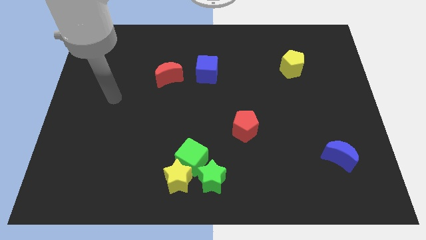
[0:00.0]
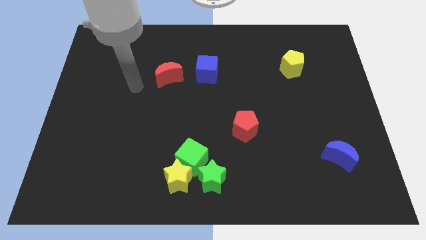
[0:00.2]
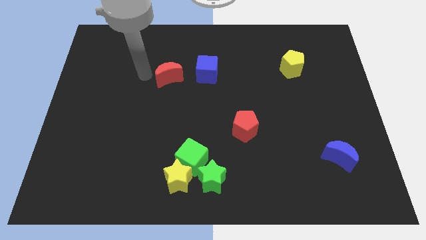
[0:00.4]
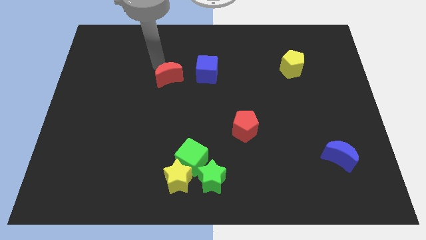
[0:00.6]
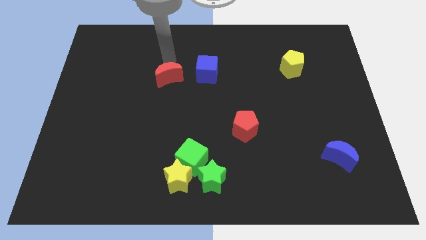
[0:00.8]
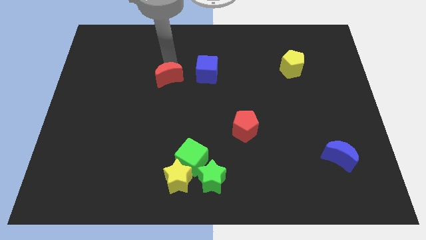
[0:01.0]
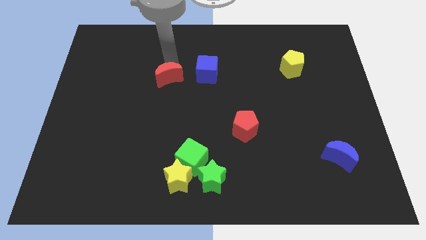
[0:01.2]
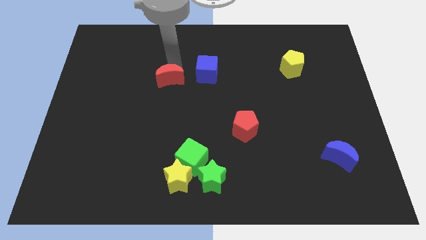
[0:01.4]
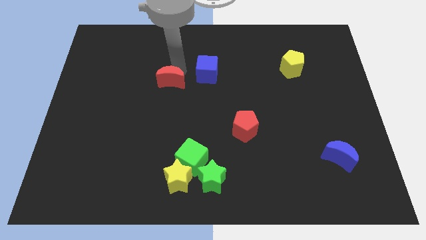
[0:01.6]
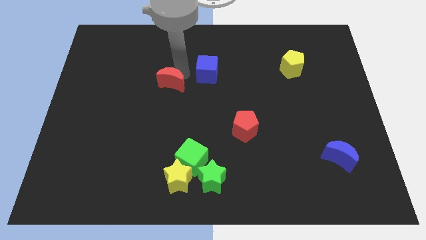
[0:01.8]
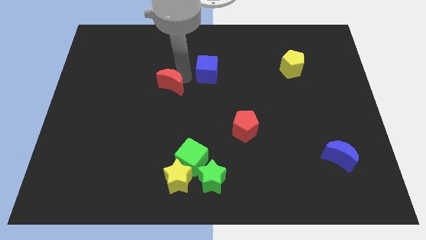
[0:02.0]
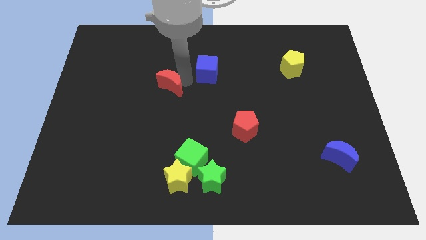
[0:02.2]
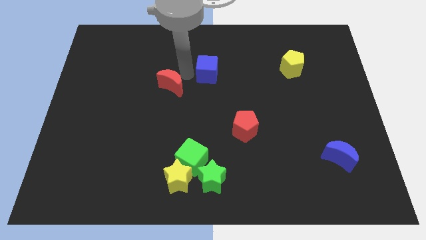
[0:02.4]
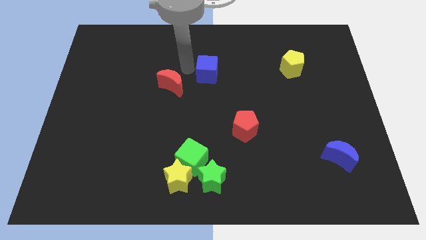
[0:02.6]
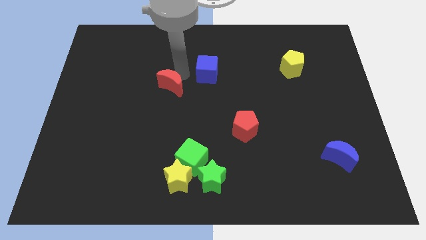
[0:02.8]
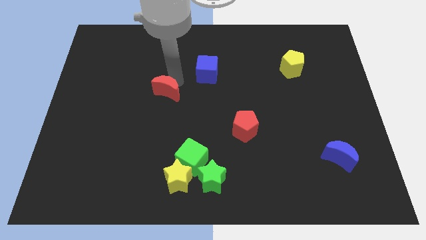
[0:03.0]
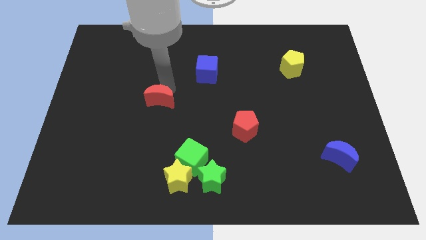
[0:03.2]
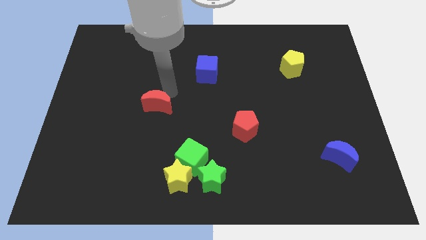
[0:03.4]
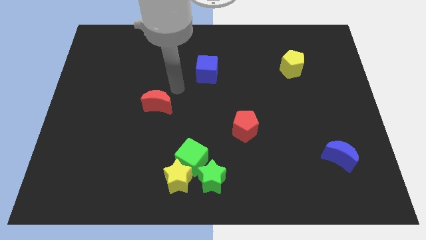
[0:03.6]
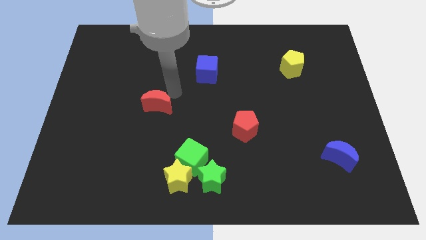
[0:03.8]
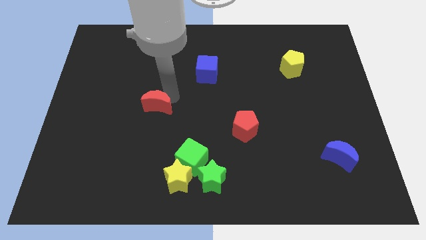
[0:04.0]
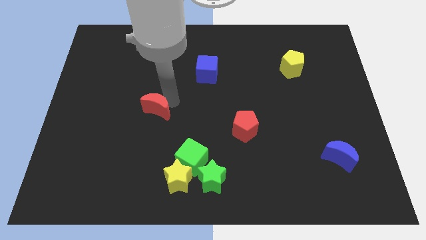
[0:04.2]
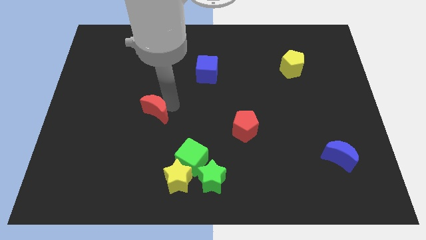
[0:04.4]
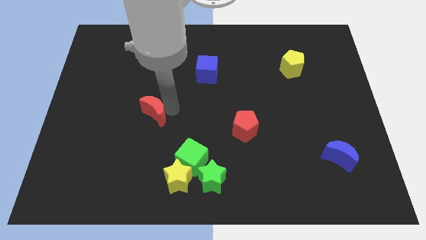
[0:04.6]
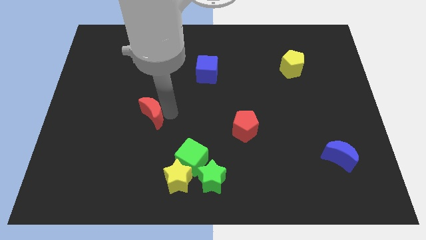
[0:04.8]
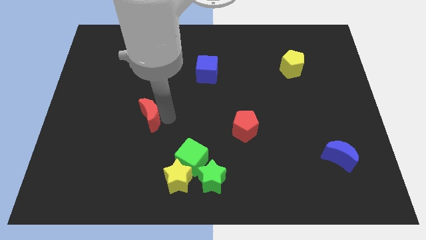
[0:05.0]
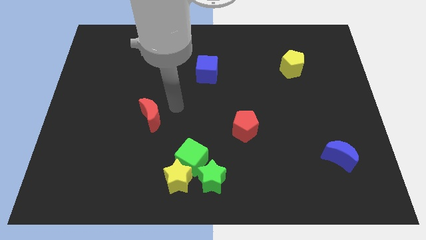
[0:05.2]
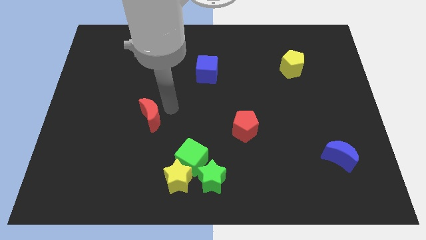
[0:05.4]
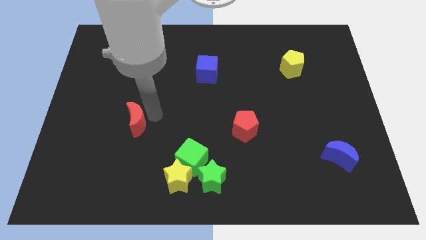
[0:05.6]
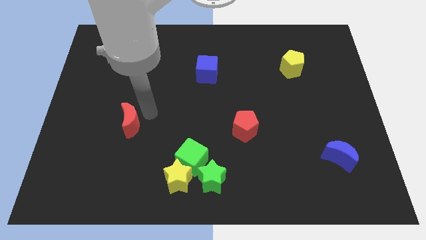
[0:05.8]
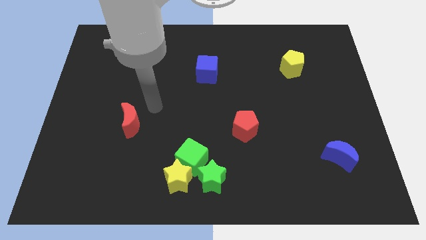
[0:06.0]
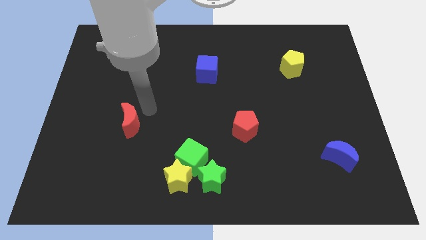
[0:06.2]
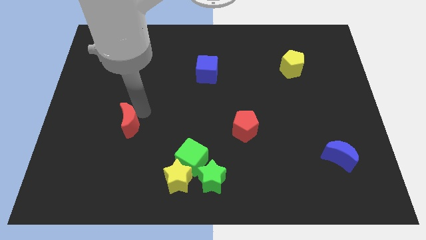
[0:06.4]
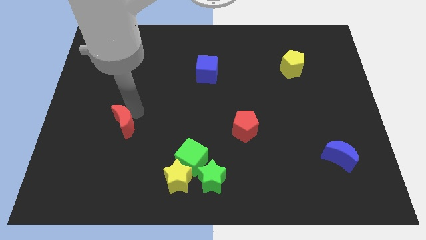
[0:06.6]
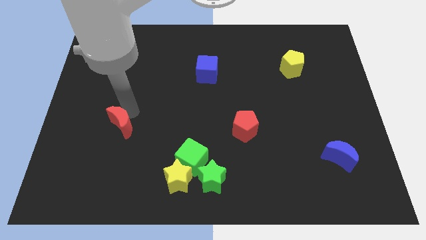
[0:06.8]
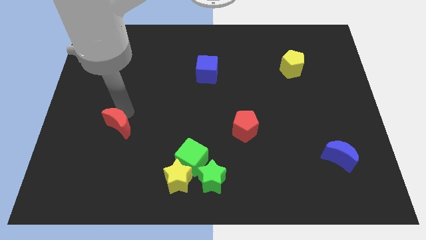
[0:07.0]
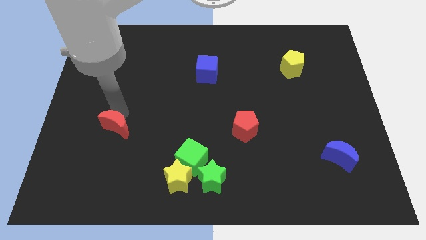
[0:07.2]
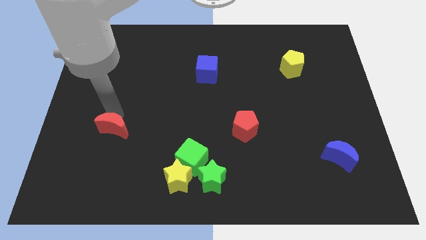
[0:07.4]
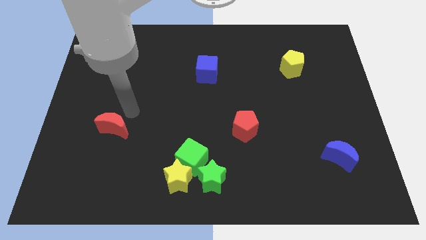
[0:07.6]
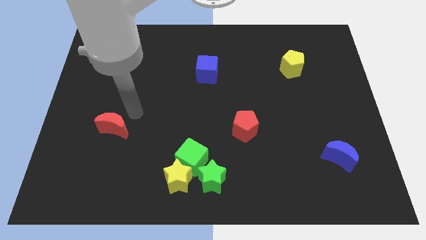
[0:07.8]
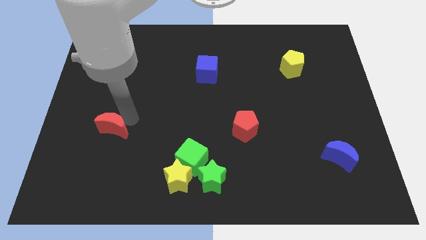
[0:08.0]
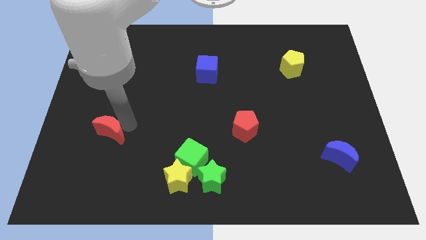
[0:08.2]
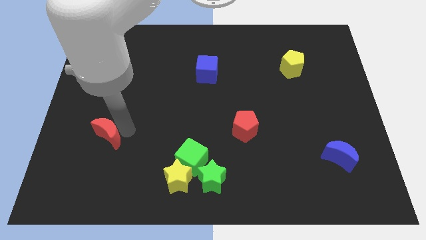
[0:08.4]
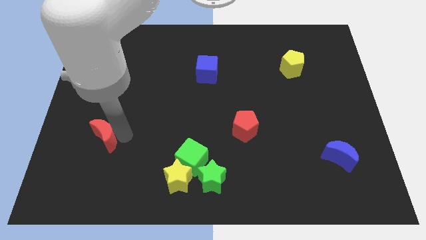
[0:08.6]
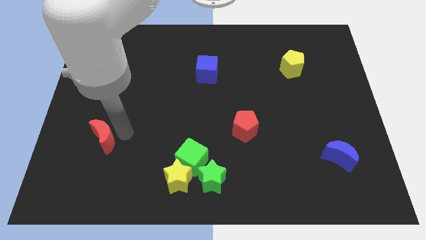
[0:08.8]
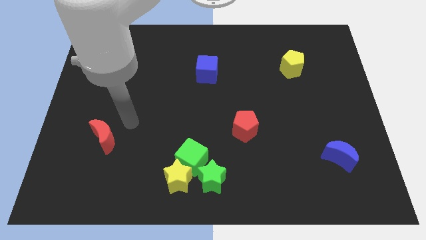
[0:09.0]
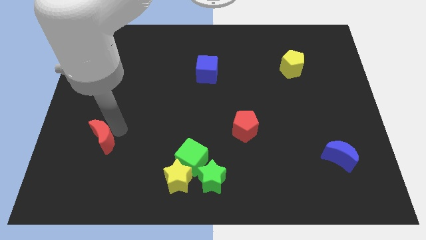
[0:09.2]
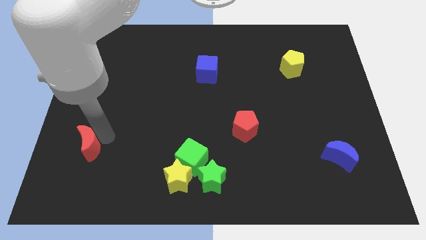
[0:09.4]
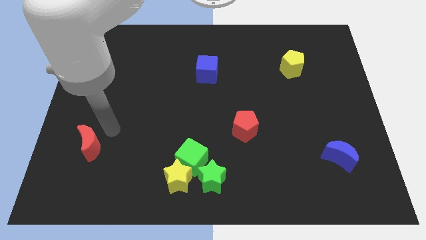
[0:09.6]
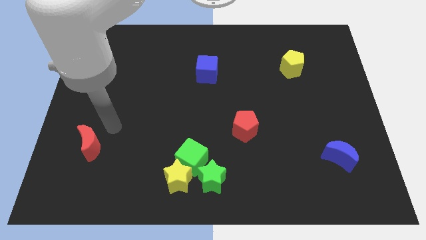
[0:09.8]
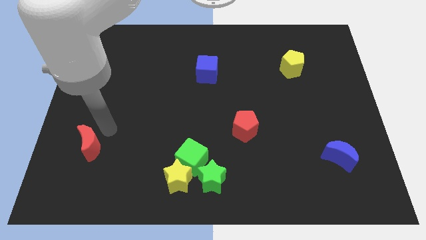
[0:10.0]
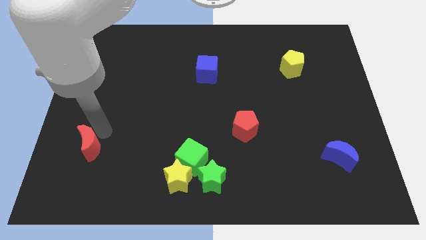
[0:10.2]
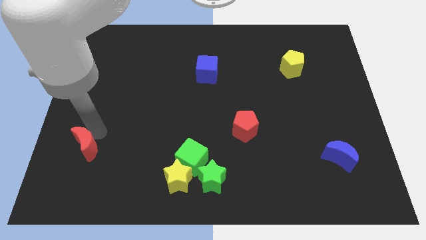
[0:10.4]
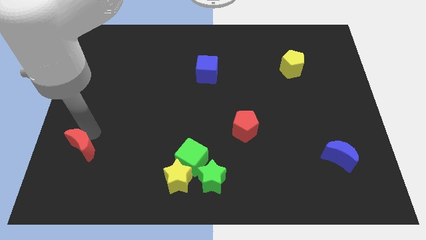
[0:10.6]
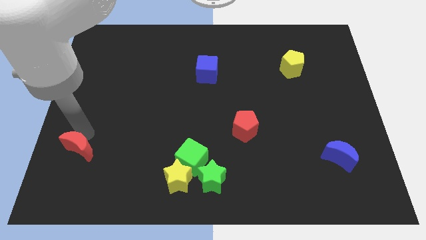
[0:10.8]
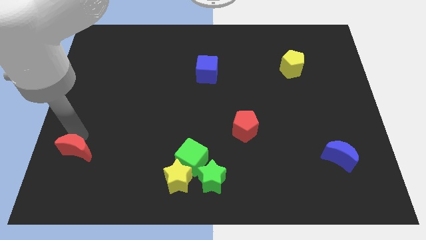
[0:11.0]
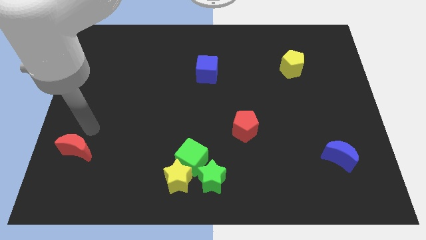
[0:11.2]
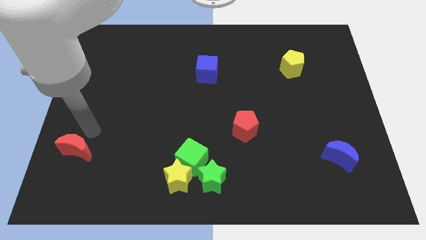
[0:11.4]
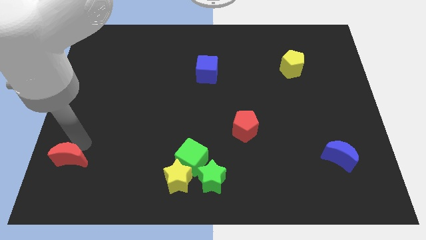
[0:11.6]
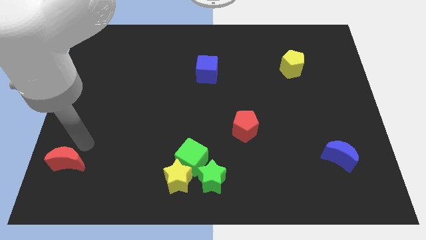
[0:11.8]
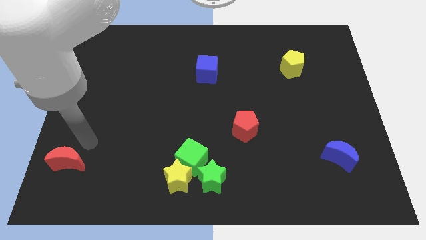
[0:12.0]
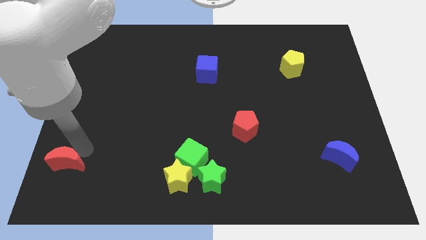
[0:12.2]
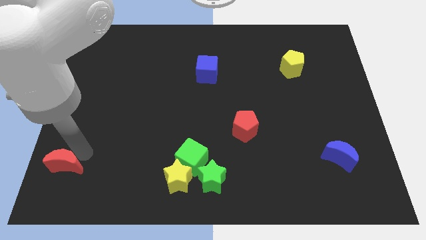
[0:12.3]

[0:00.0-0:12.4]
put the red moon to the bottom left
